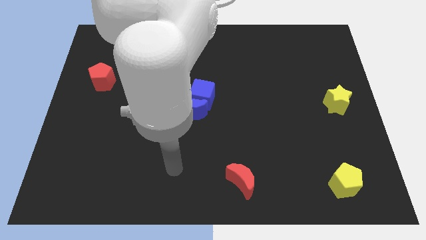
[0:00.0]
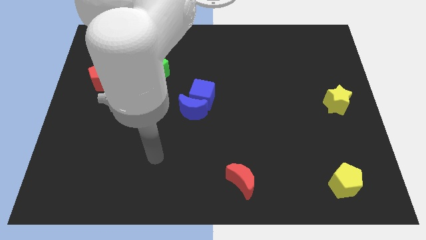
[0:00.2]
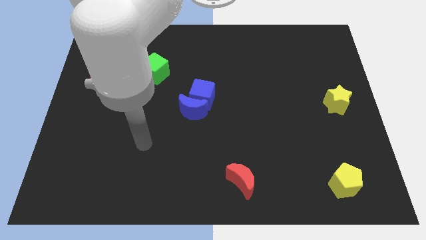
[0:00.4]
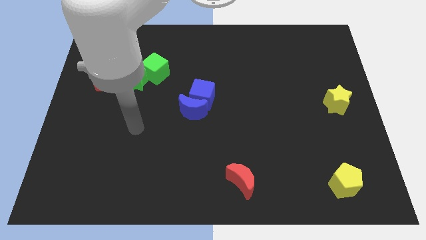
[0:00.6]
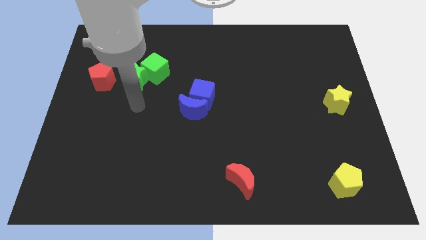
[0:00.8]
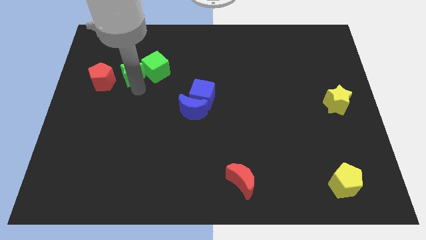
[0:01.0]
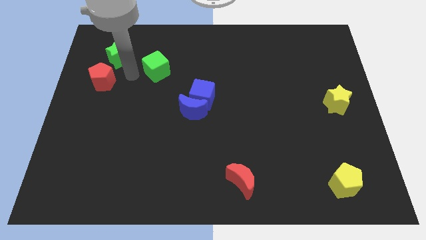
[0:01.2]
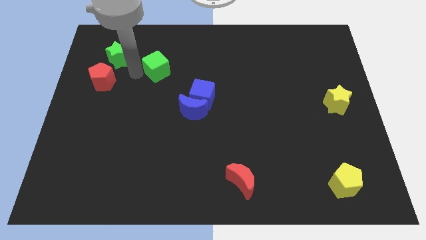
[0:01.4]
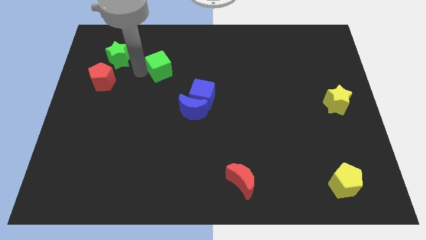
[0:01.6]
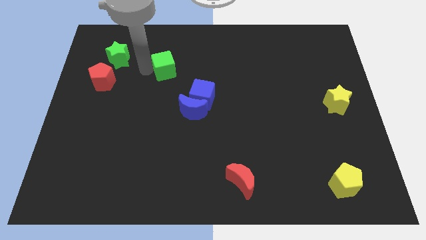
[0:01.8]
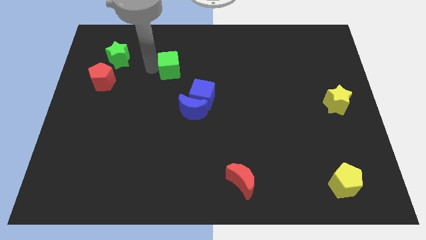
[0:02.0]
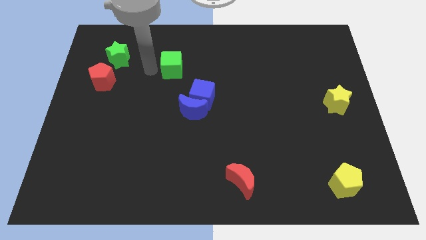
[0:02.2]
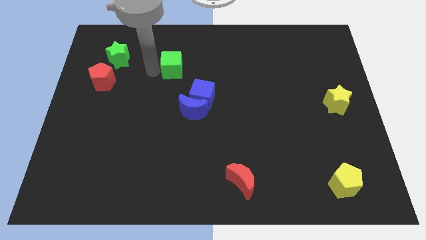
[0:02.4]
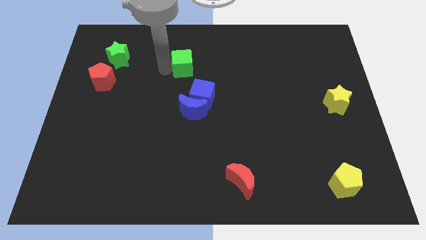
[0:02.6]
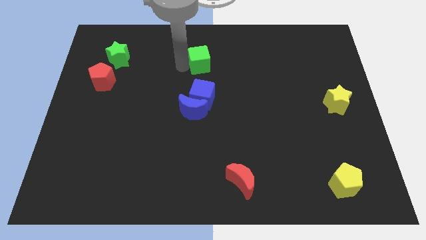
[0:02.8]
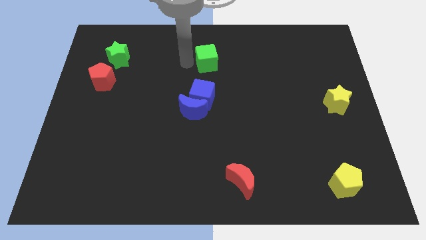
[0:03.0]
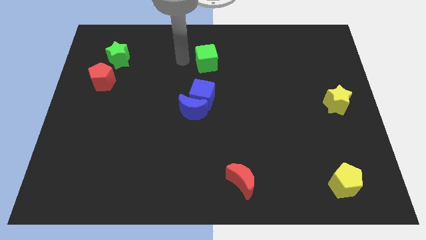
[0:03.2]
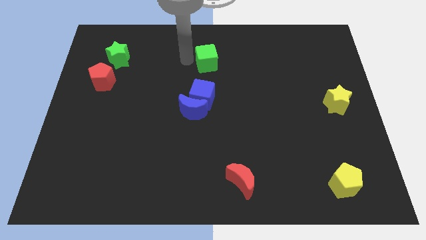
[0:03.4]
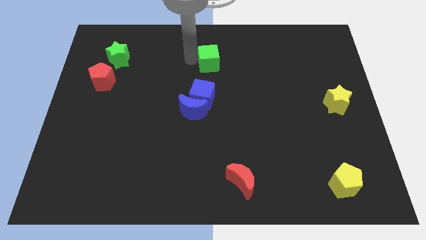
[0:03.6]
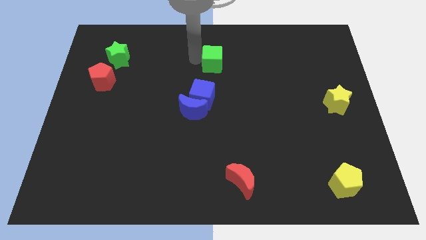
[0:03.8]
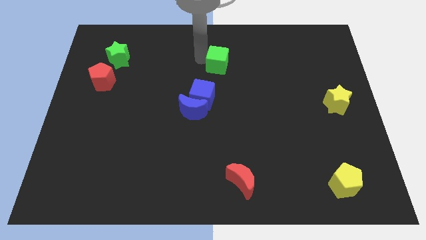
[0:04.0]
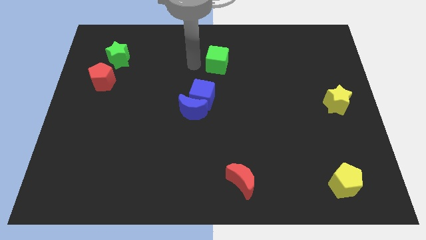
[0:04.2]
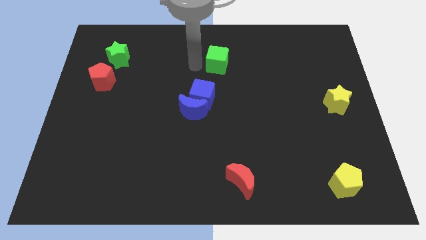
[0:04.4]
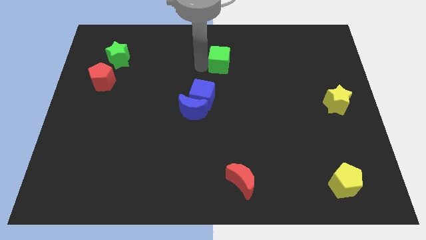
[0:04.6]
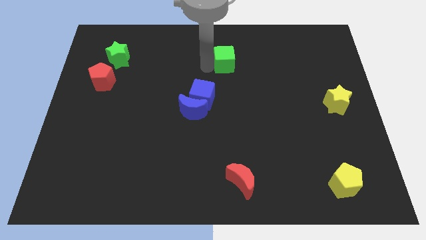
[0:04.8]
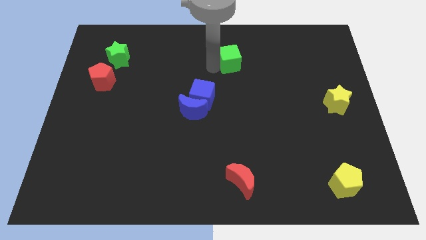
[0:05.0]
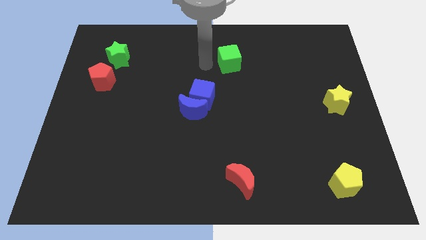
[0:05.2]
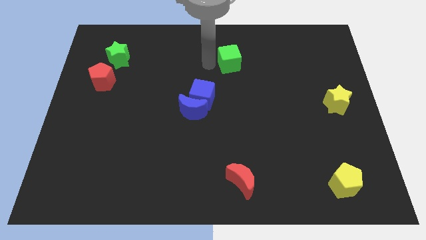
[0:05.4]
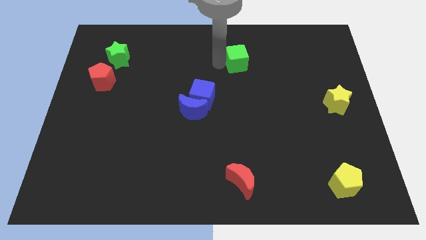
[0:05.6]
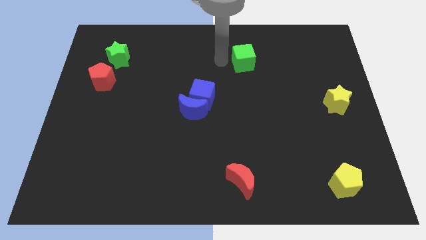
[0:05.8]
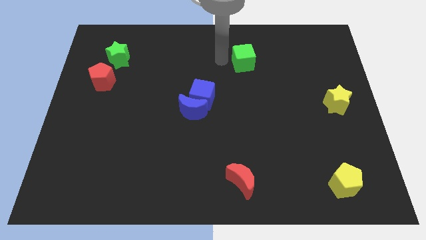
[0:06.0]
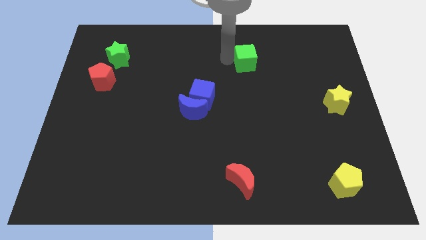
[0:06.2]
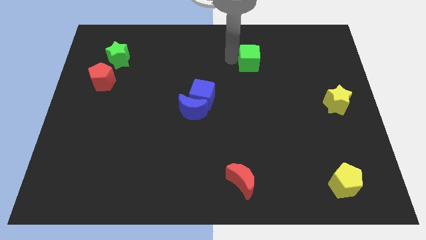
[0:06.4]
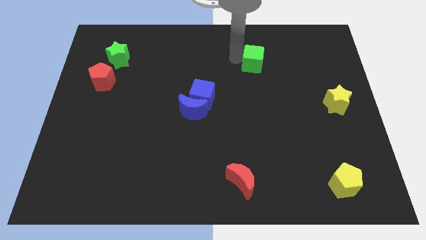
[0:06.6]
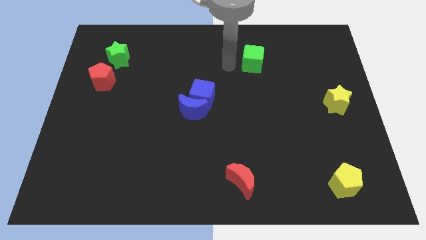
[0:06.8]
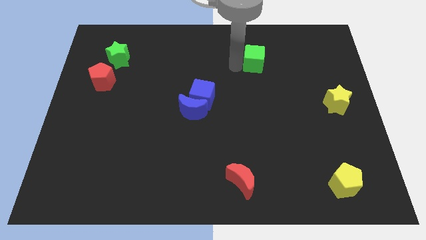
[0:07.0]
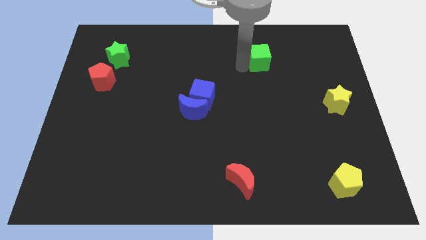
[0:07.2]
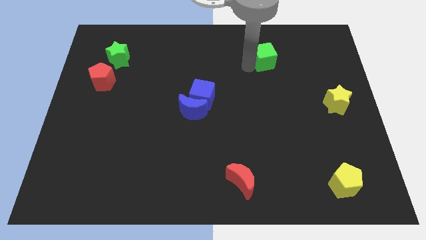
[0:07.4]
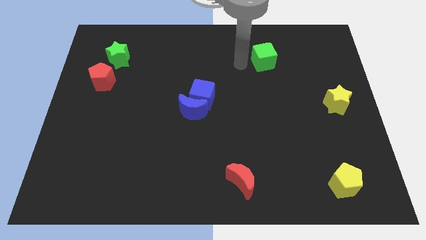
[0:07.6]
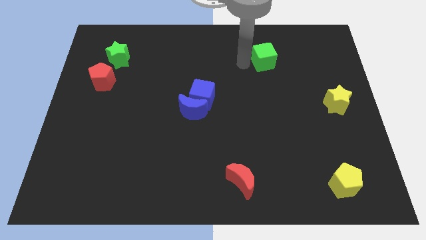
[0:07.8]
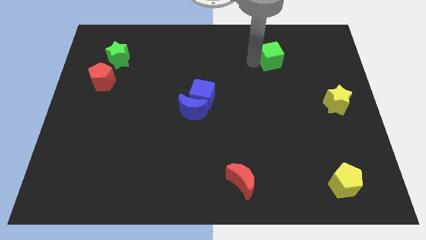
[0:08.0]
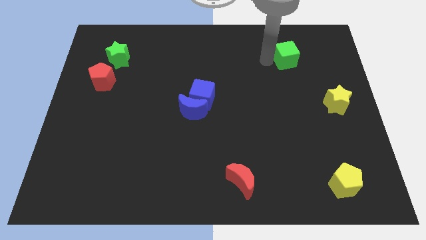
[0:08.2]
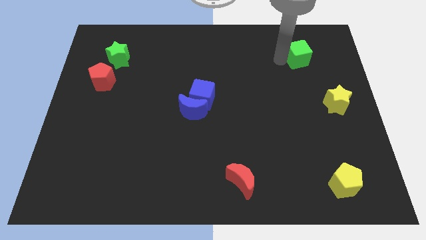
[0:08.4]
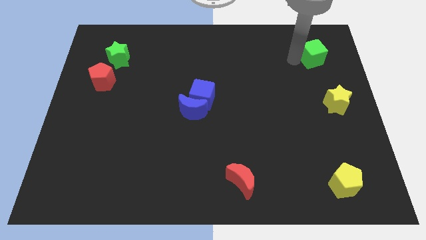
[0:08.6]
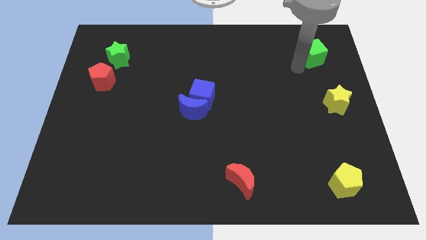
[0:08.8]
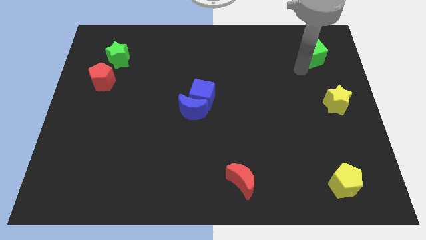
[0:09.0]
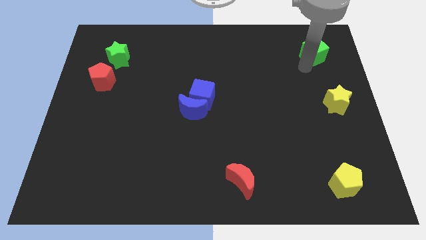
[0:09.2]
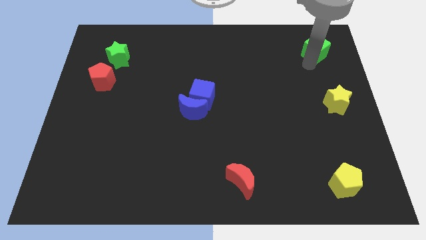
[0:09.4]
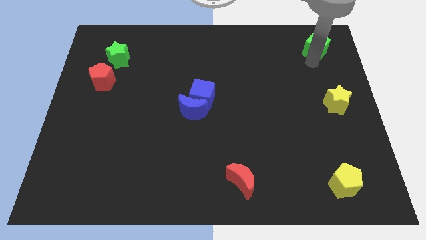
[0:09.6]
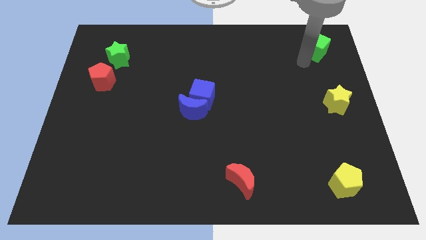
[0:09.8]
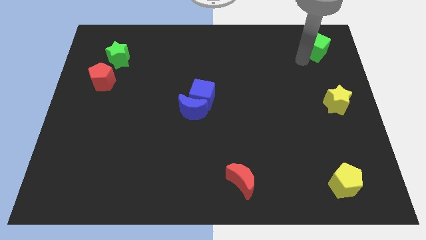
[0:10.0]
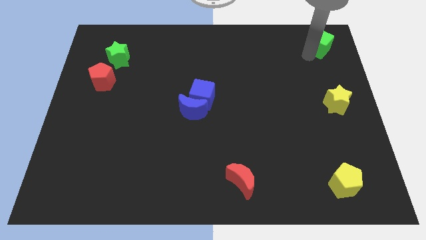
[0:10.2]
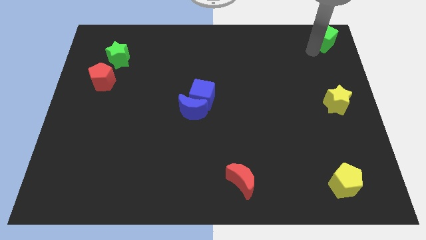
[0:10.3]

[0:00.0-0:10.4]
put the green cube to the top right corner

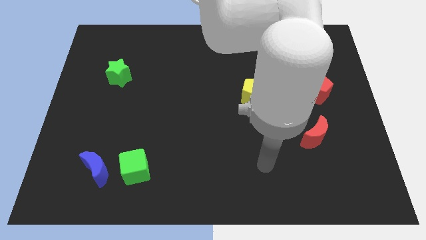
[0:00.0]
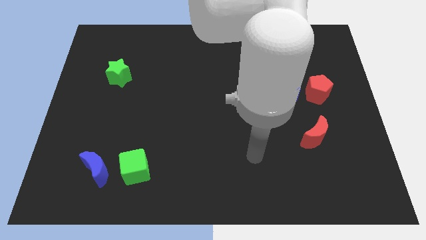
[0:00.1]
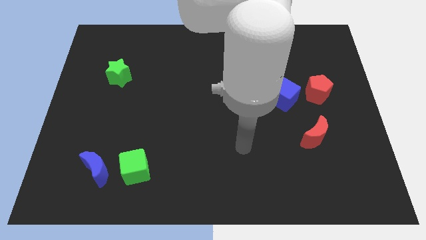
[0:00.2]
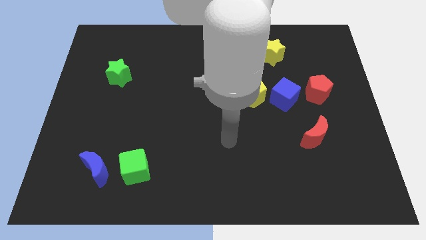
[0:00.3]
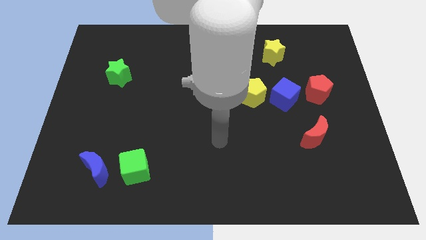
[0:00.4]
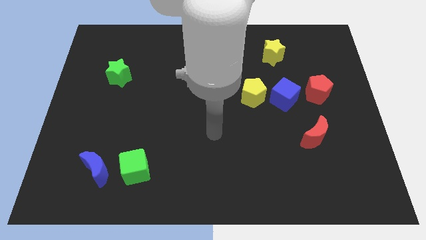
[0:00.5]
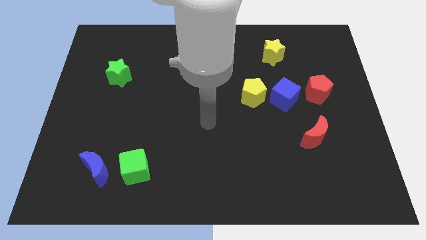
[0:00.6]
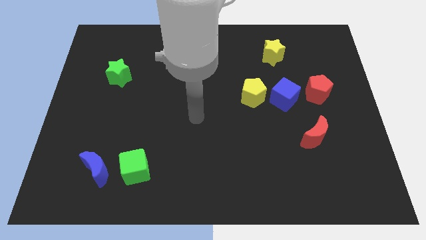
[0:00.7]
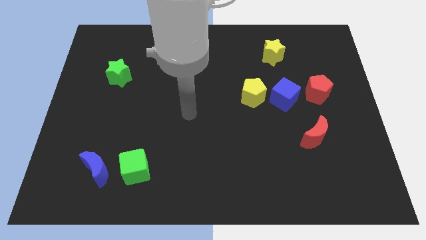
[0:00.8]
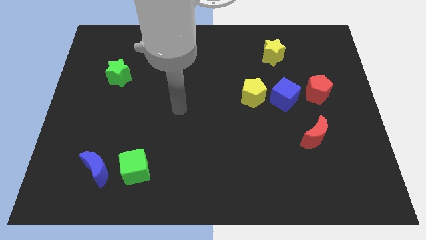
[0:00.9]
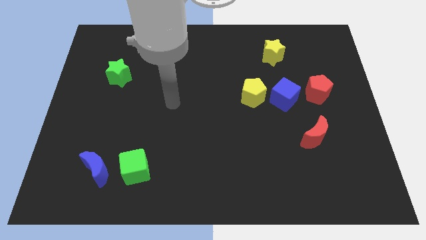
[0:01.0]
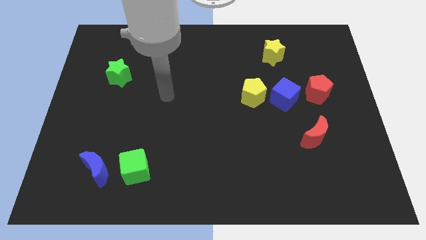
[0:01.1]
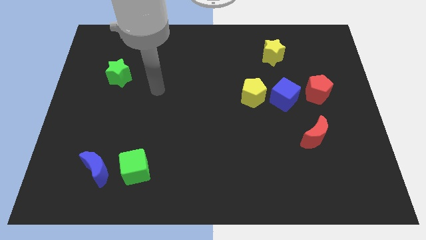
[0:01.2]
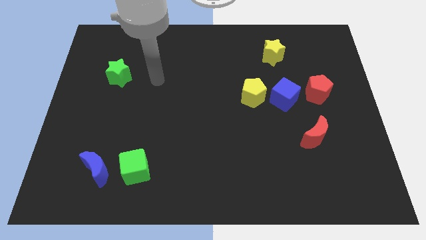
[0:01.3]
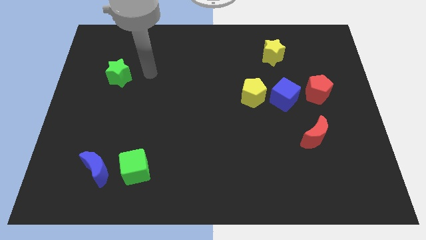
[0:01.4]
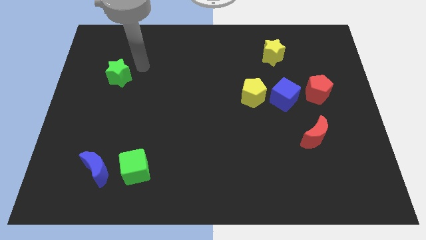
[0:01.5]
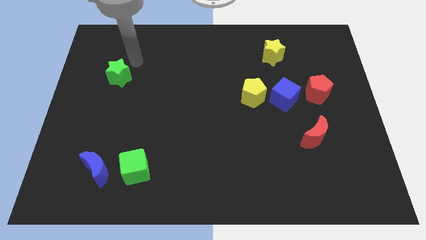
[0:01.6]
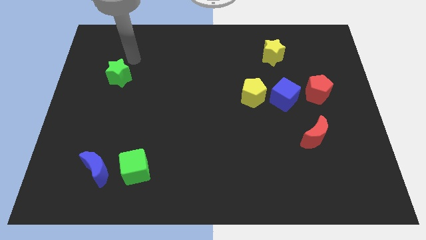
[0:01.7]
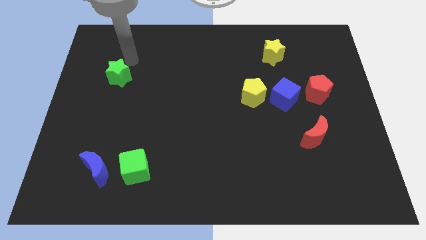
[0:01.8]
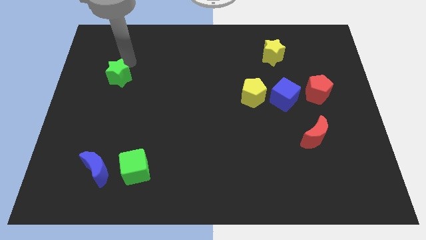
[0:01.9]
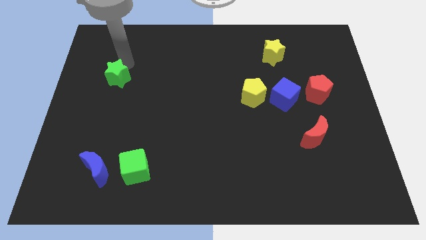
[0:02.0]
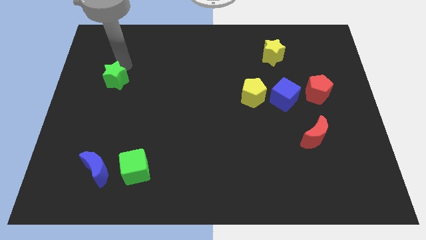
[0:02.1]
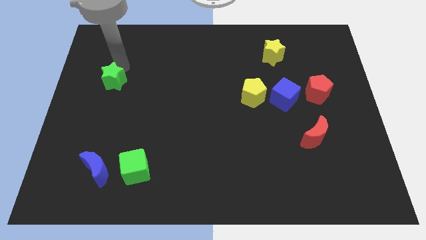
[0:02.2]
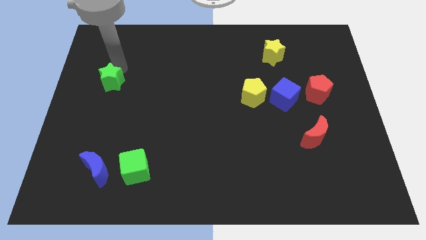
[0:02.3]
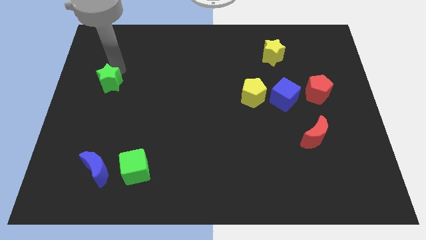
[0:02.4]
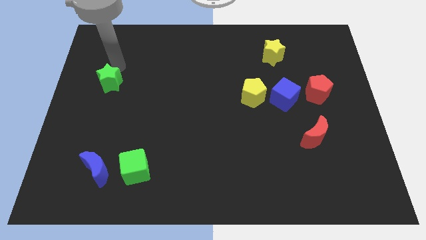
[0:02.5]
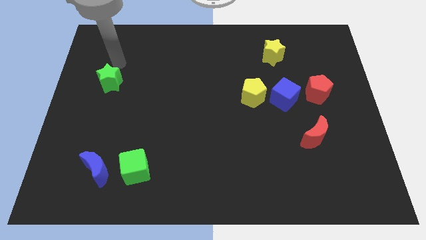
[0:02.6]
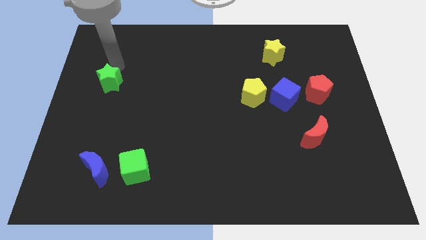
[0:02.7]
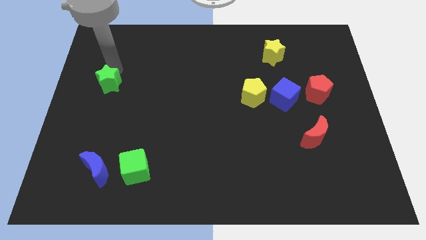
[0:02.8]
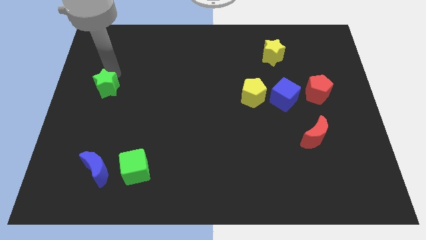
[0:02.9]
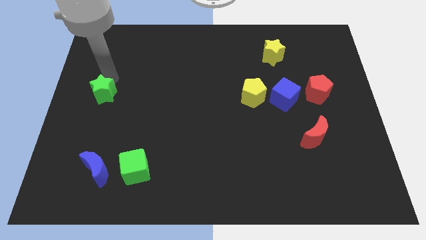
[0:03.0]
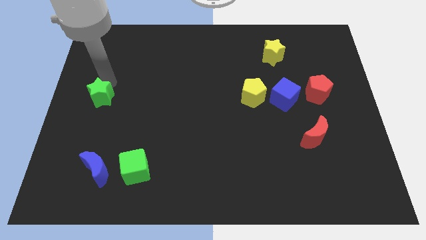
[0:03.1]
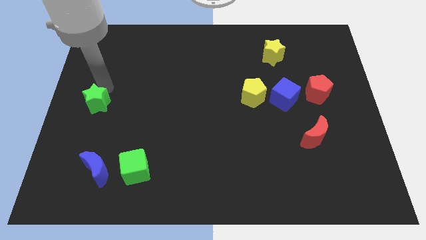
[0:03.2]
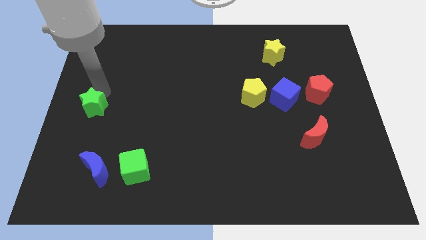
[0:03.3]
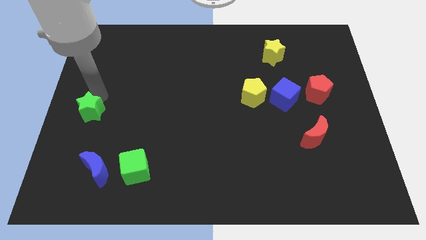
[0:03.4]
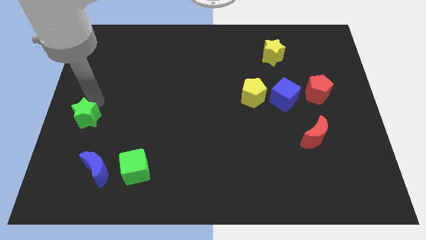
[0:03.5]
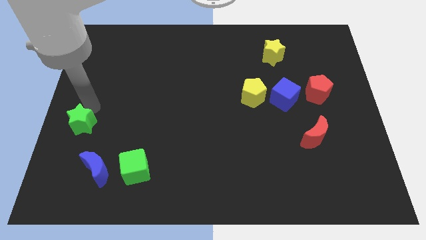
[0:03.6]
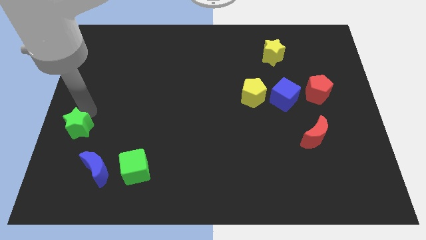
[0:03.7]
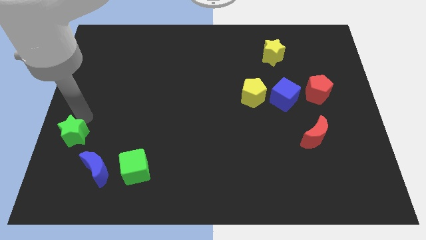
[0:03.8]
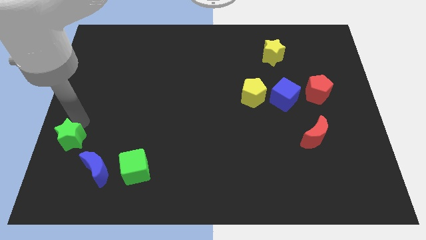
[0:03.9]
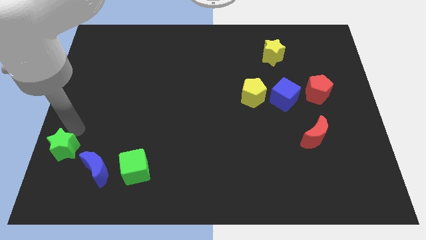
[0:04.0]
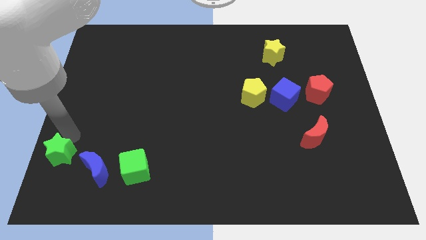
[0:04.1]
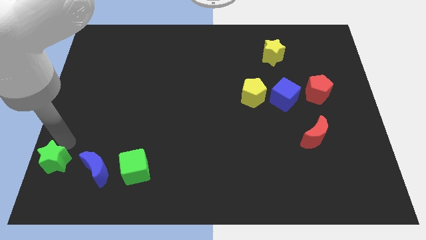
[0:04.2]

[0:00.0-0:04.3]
slide the green star to the bottom left corner
